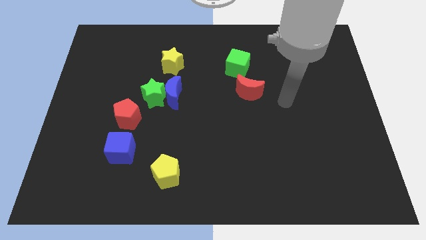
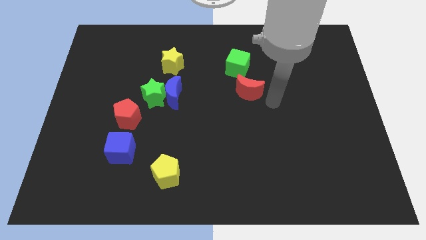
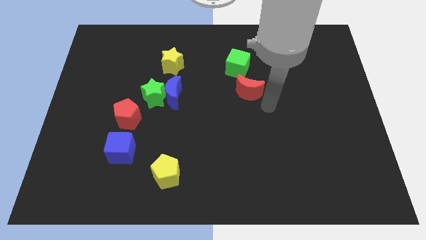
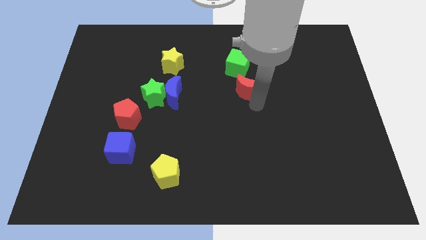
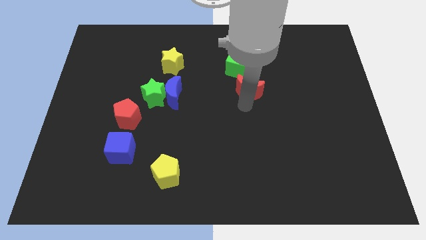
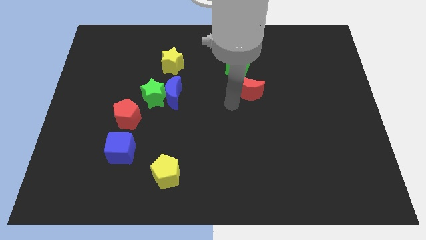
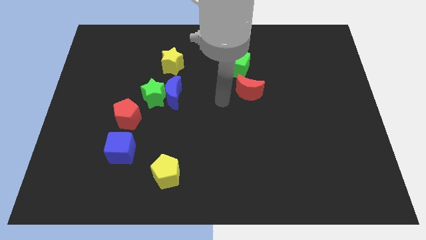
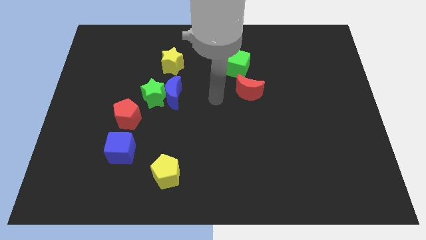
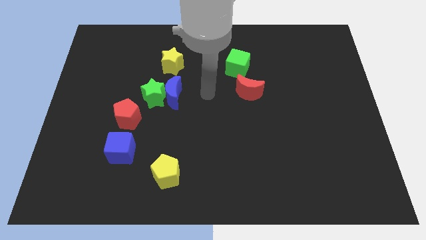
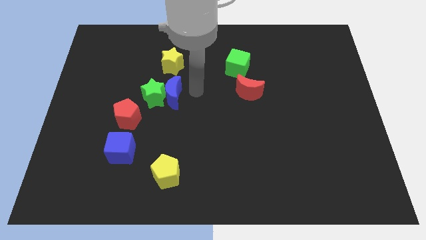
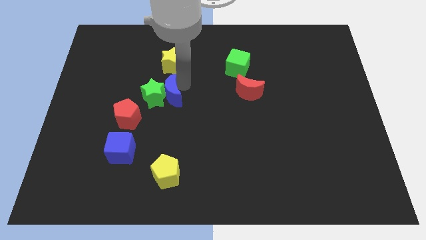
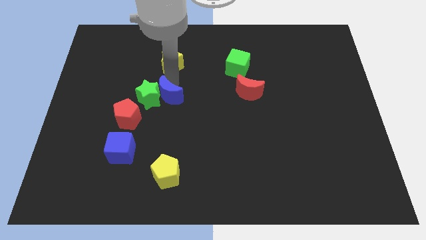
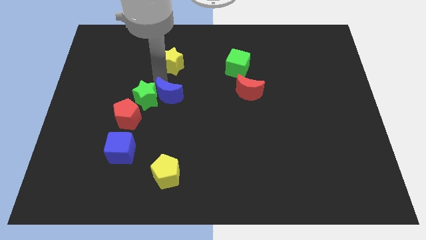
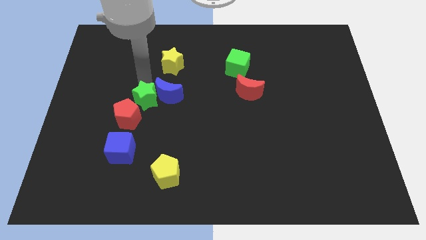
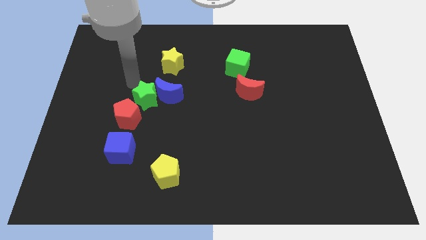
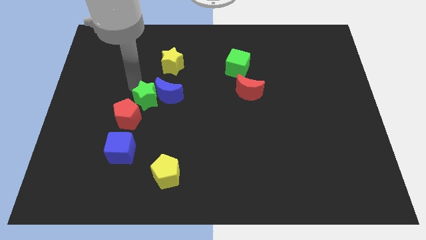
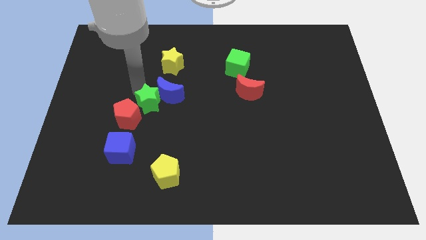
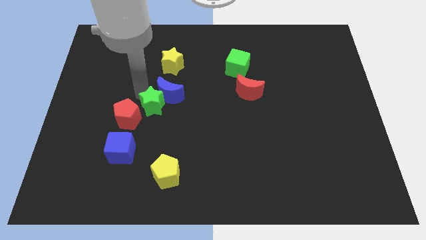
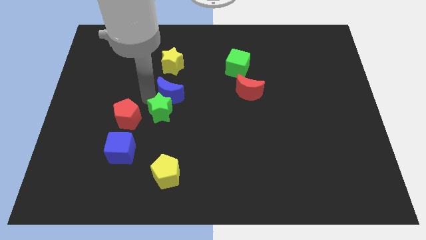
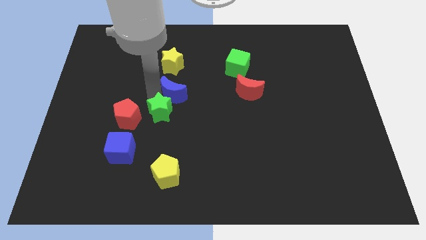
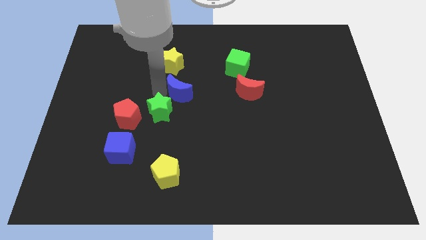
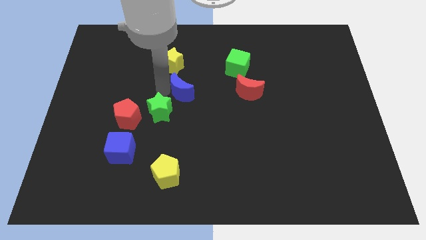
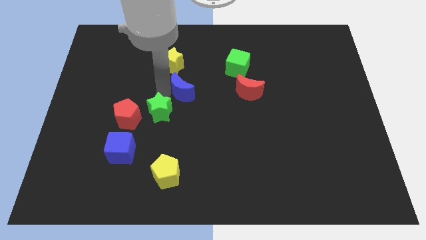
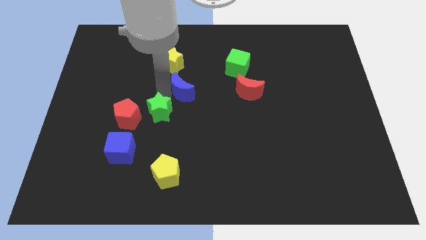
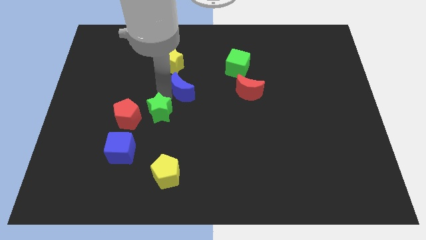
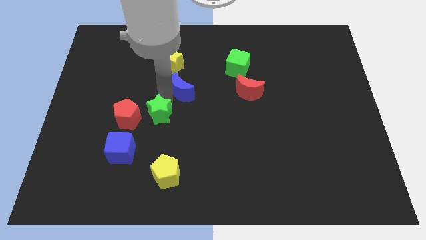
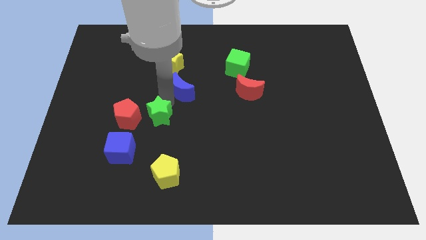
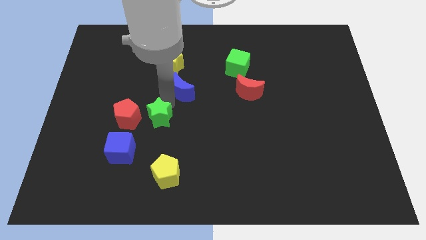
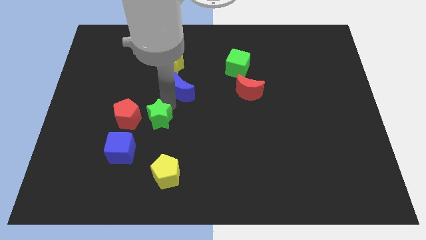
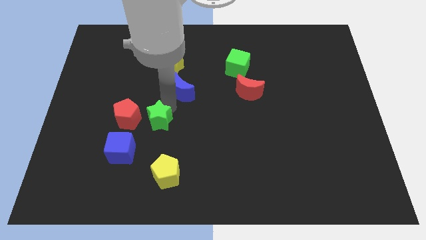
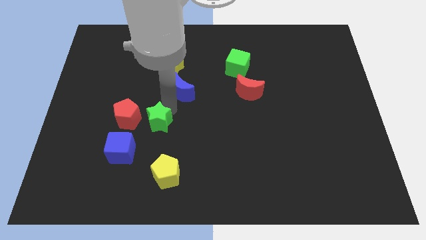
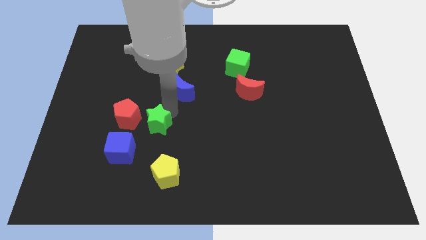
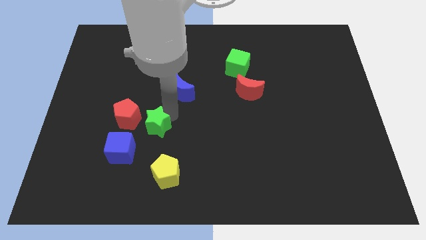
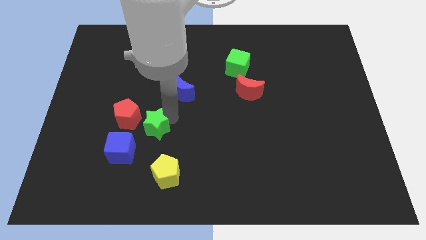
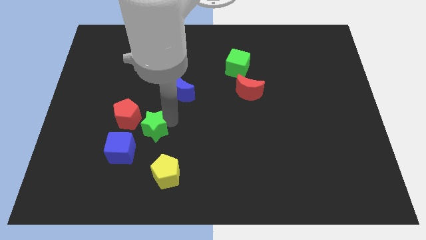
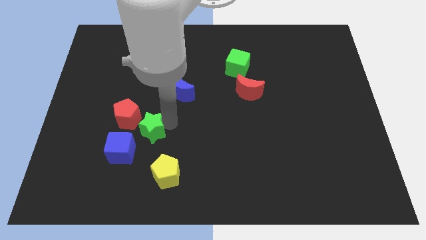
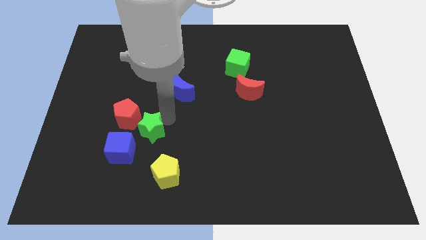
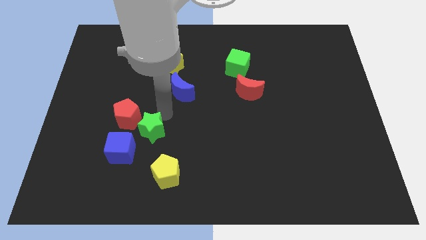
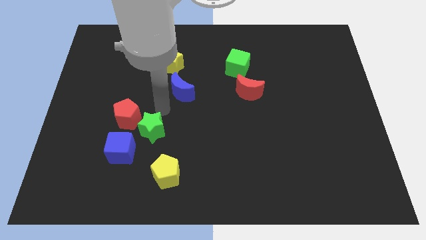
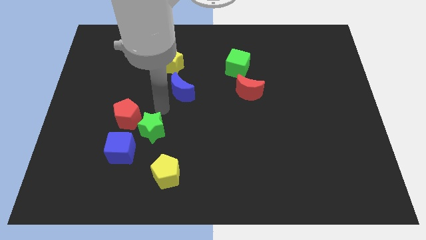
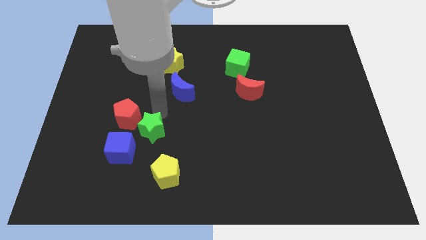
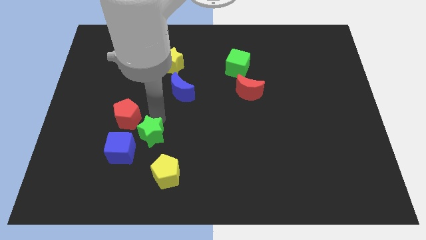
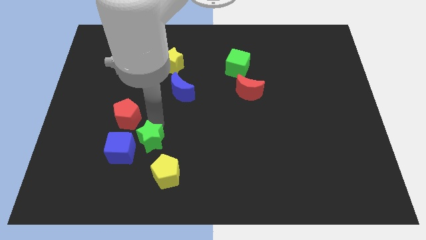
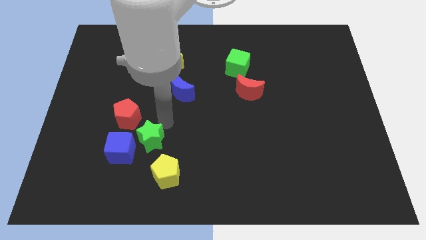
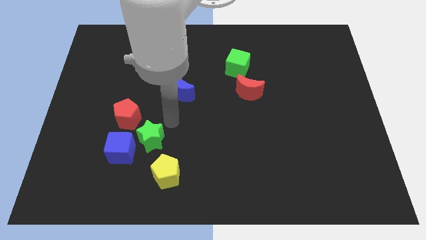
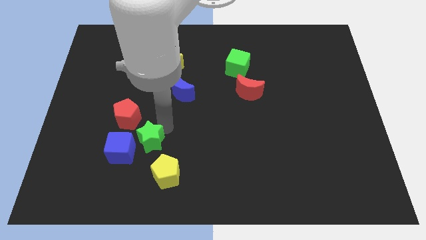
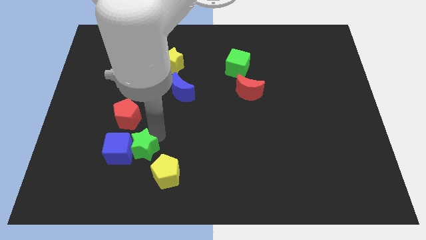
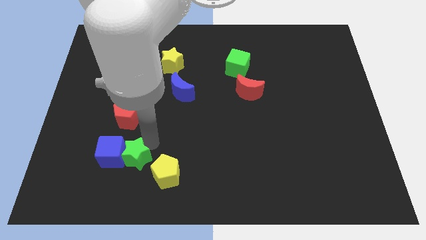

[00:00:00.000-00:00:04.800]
push the green star to the left of the yellow pentagon

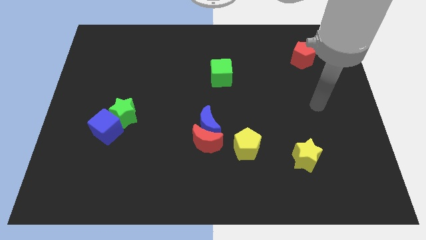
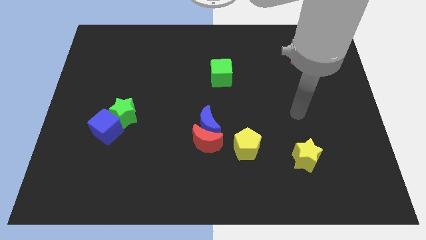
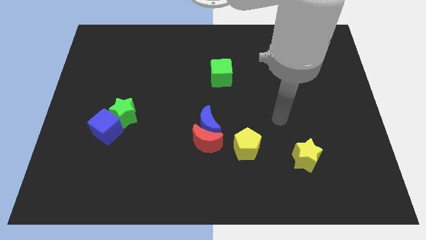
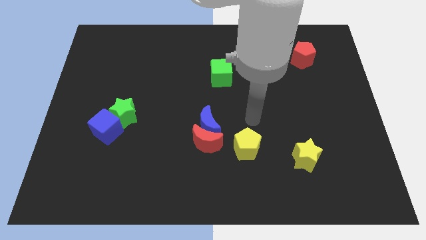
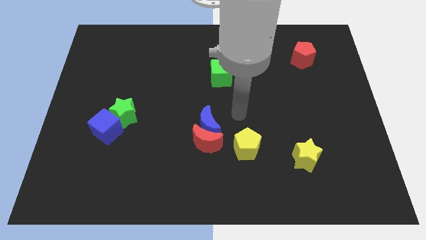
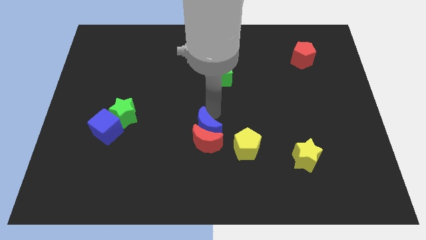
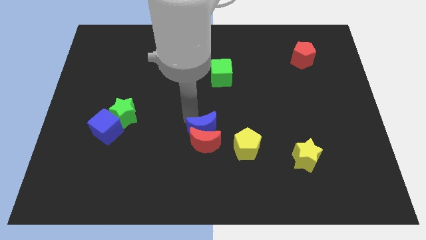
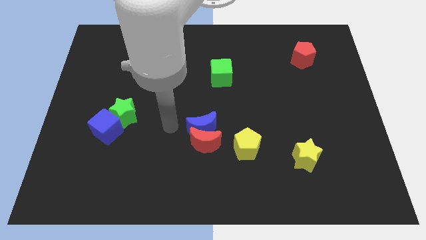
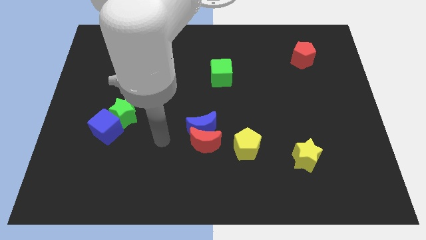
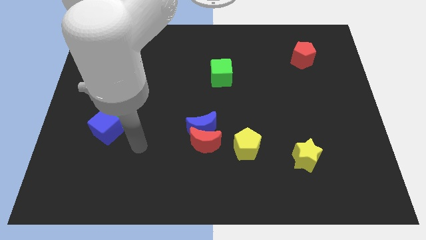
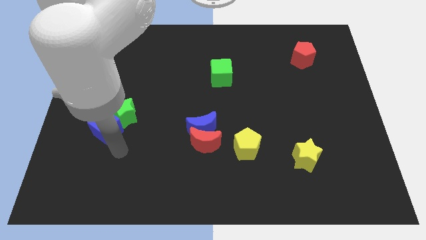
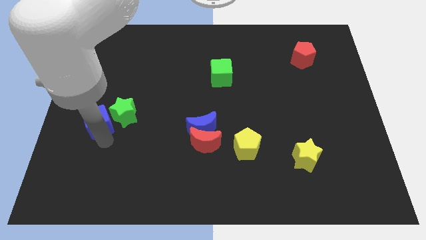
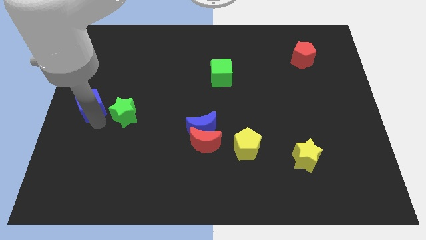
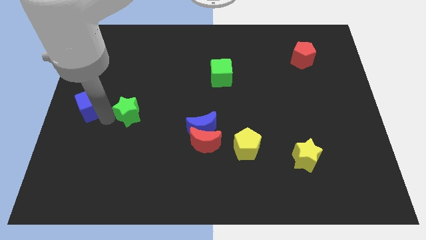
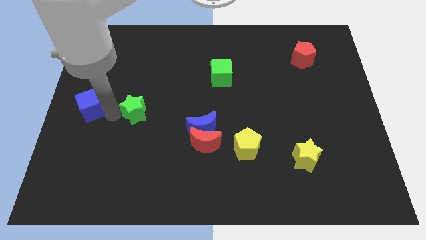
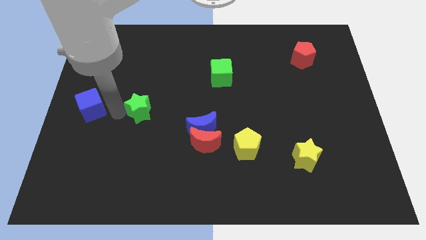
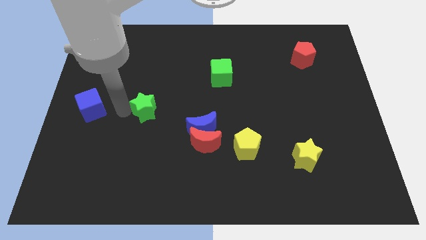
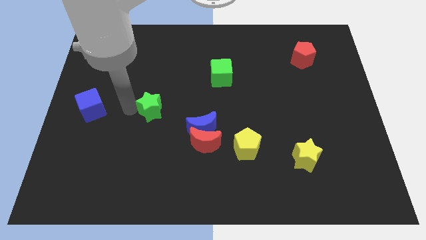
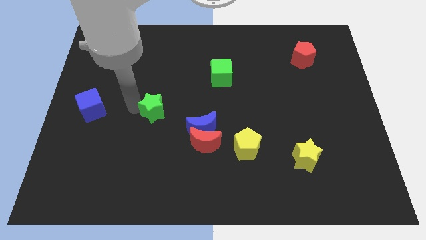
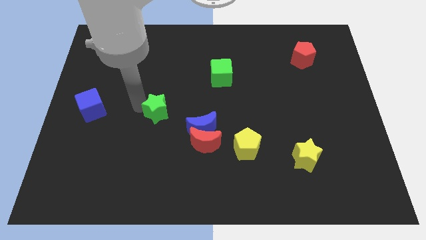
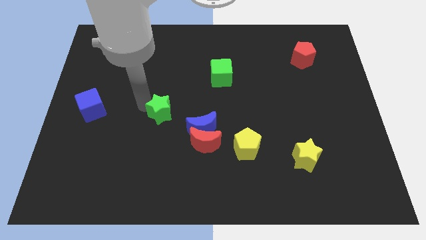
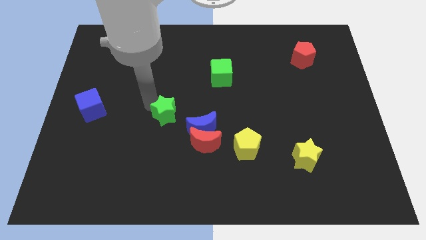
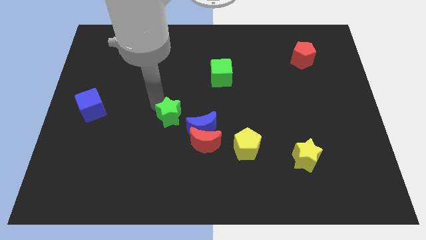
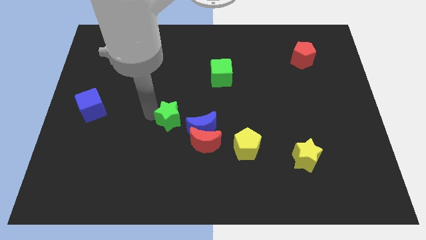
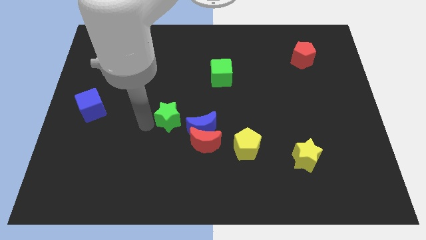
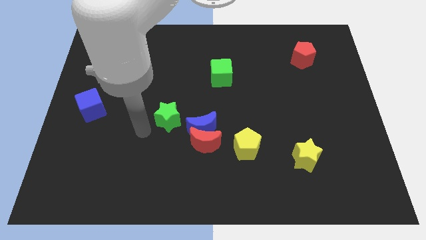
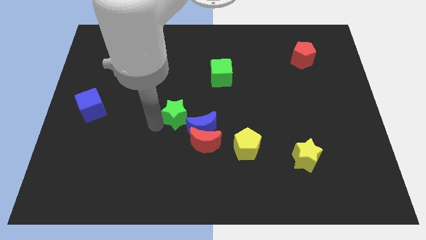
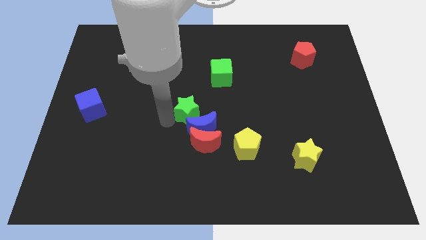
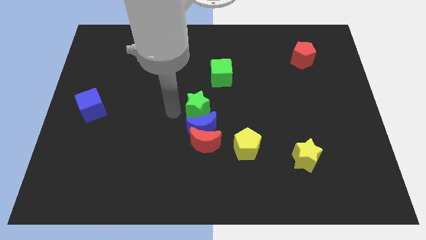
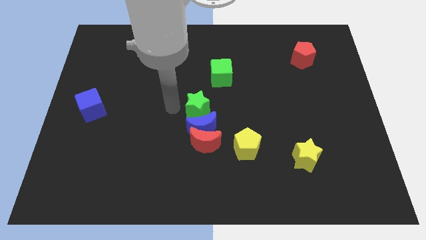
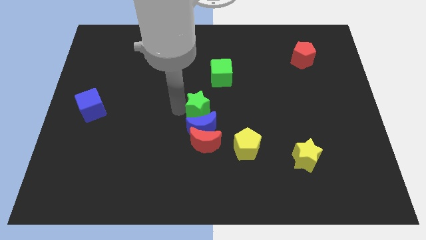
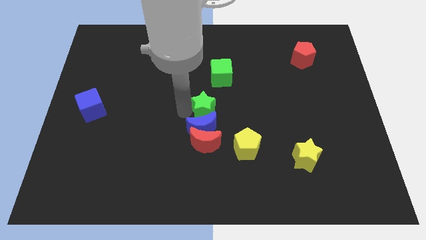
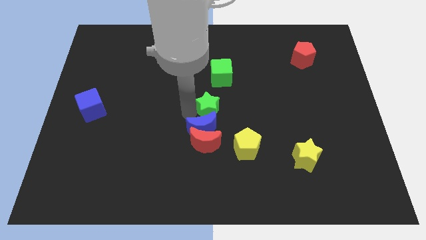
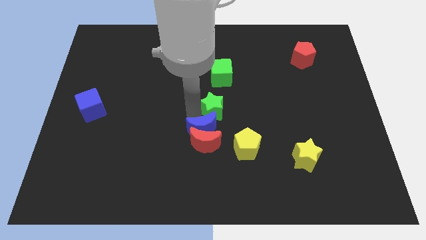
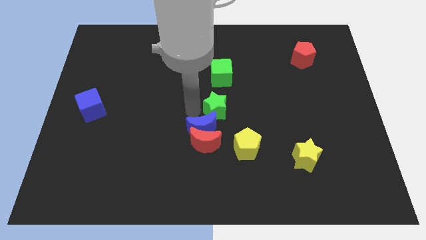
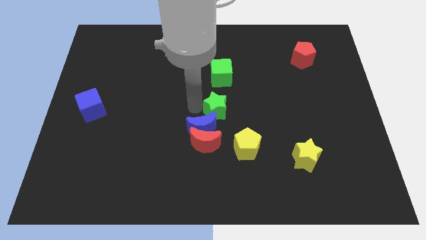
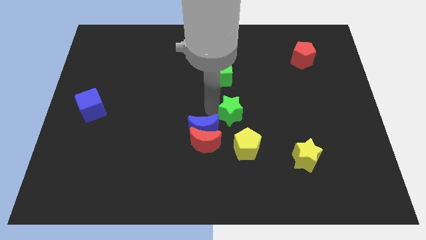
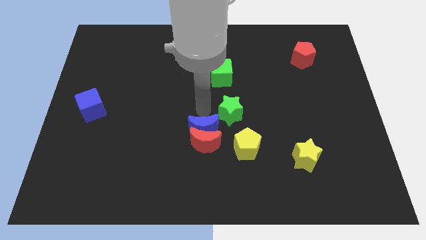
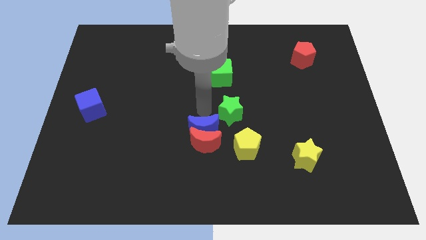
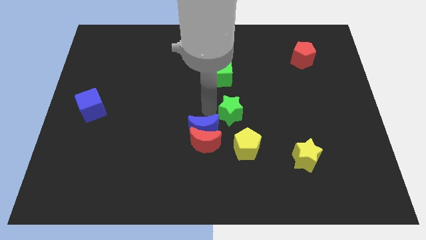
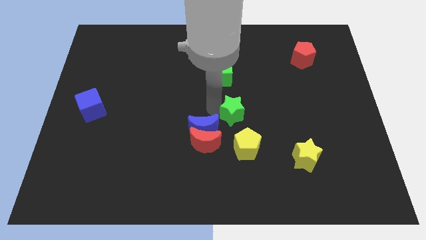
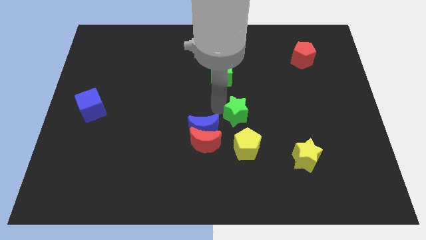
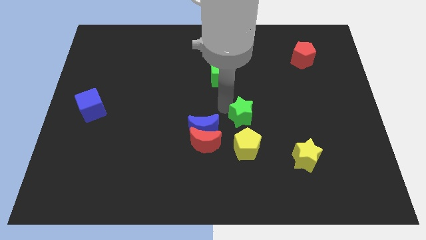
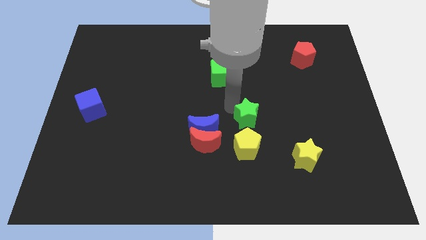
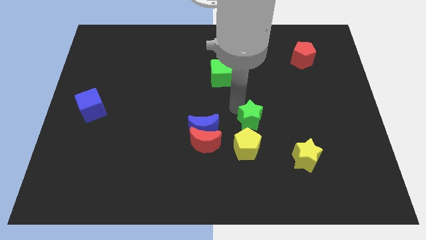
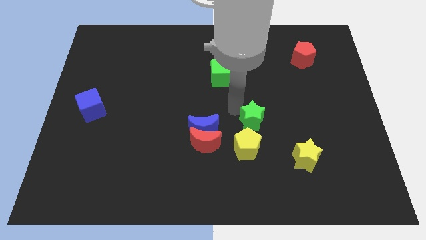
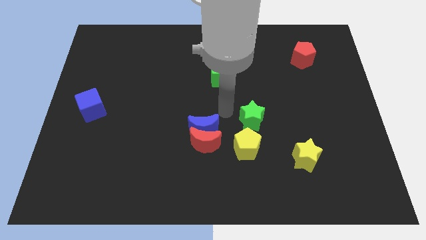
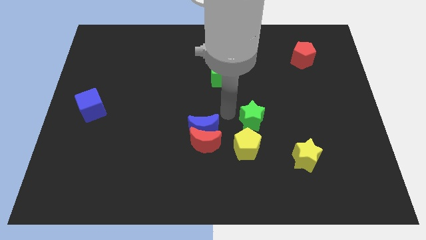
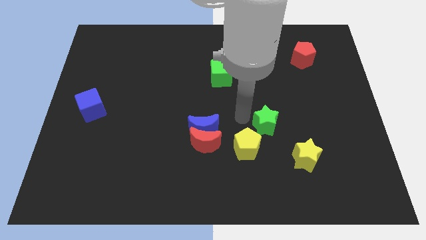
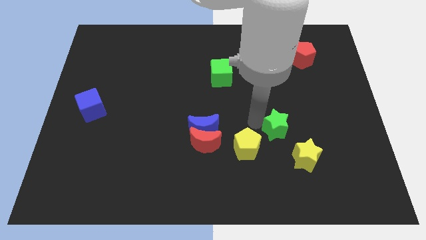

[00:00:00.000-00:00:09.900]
slide the green star right of the yellow pentagon
